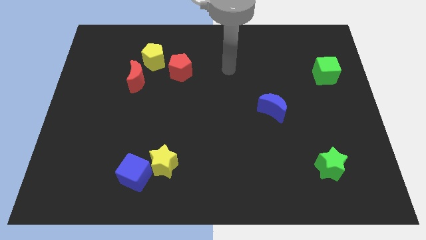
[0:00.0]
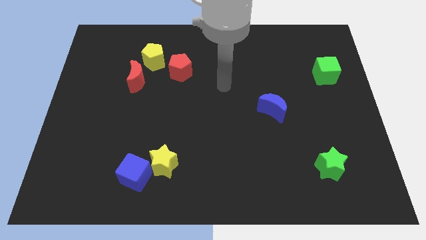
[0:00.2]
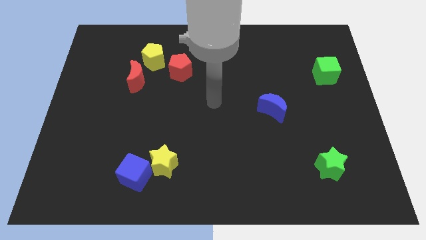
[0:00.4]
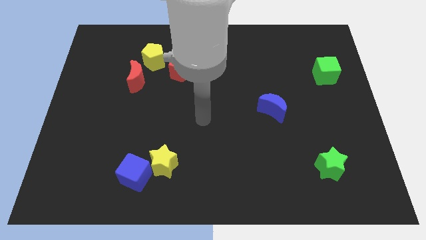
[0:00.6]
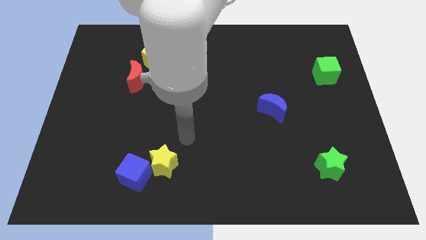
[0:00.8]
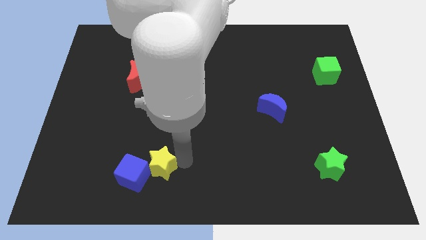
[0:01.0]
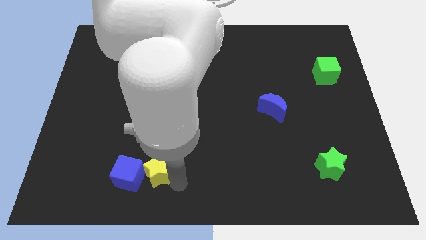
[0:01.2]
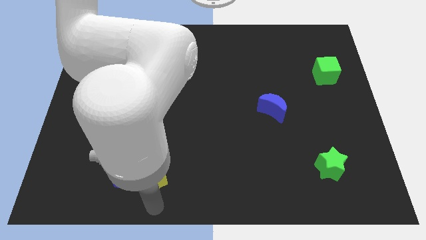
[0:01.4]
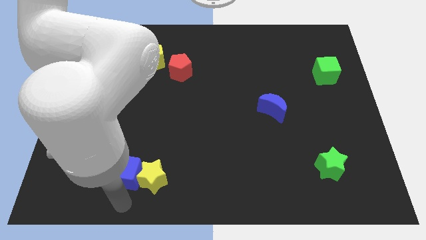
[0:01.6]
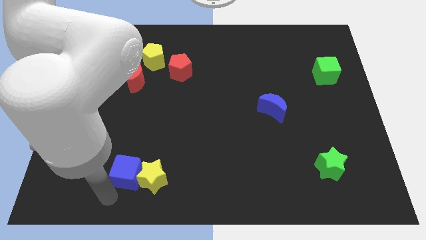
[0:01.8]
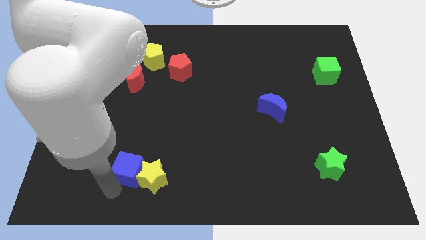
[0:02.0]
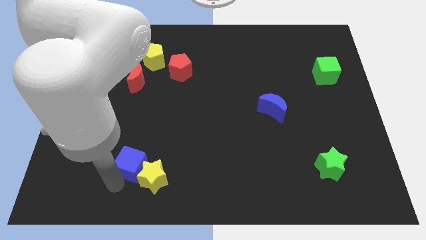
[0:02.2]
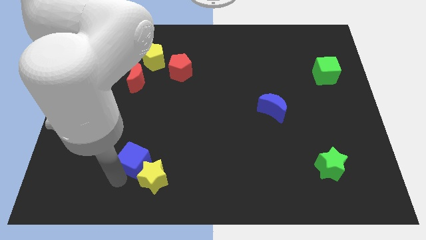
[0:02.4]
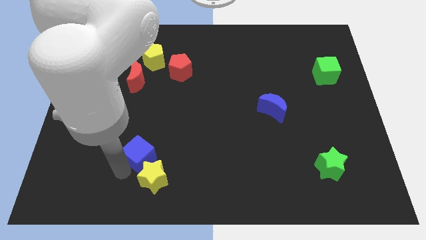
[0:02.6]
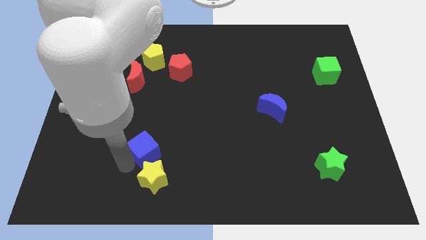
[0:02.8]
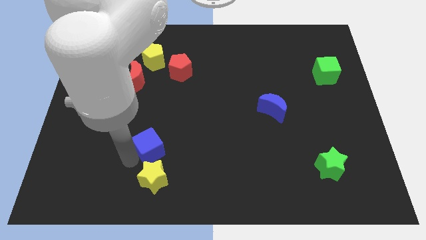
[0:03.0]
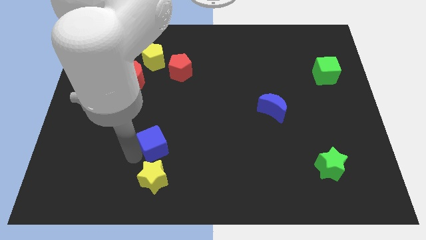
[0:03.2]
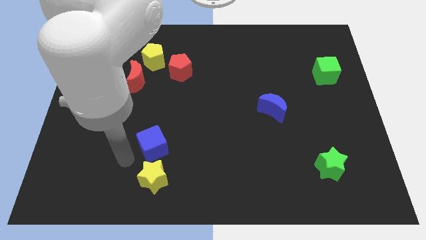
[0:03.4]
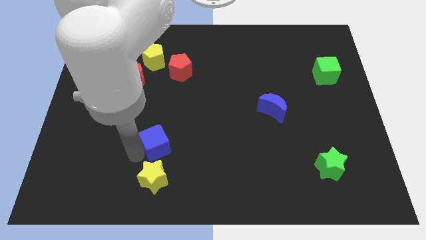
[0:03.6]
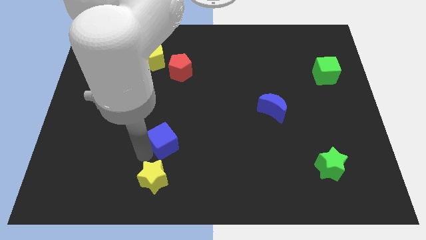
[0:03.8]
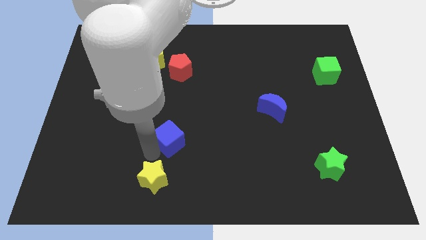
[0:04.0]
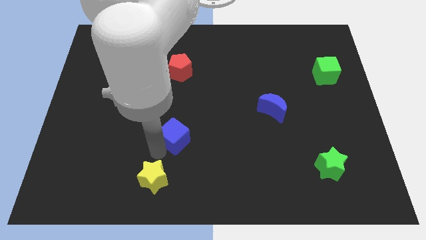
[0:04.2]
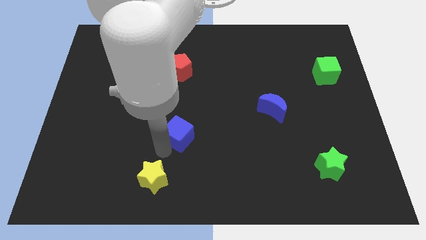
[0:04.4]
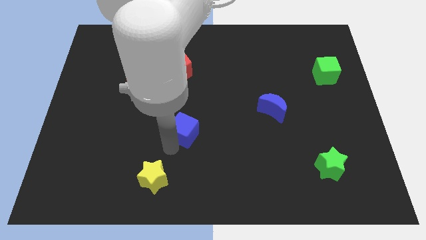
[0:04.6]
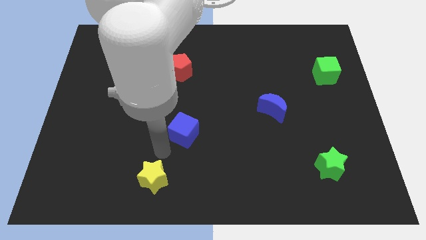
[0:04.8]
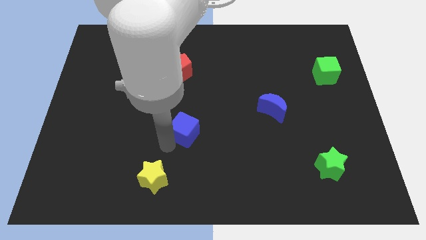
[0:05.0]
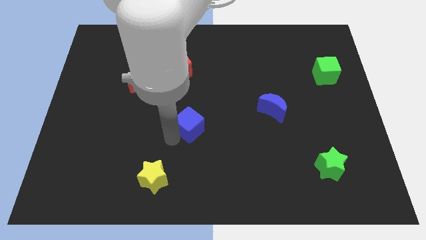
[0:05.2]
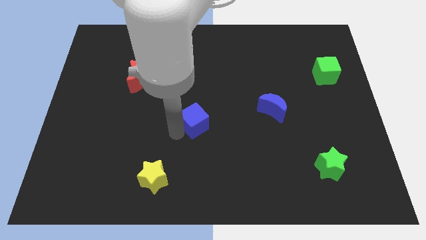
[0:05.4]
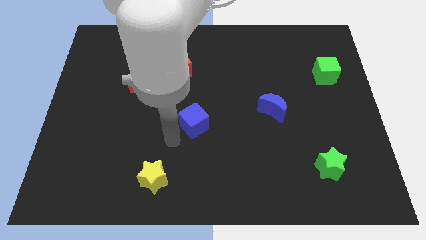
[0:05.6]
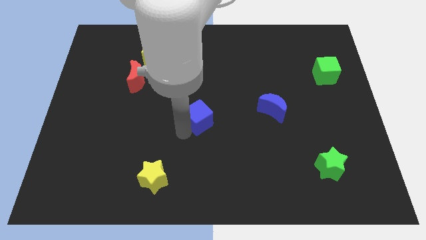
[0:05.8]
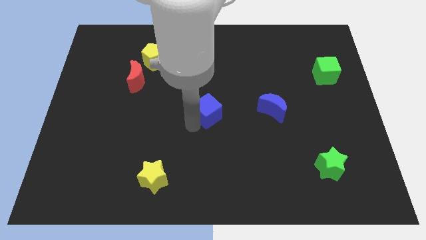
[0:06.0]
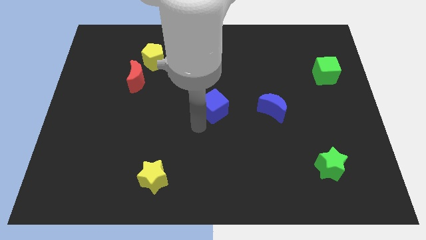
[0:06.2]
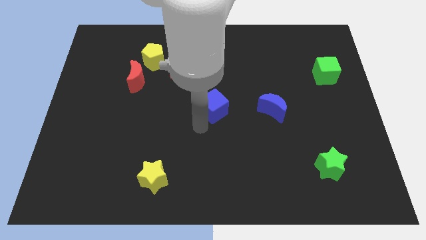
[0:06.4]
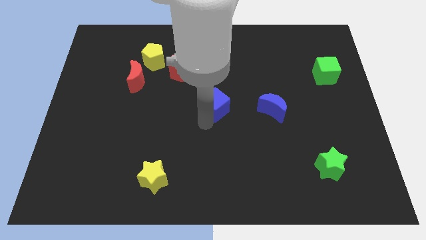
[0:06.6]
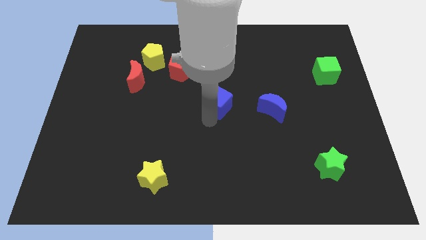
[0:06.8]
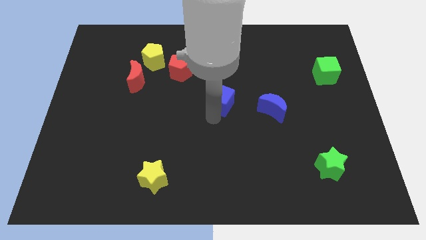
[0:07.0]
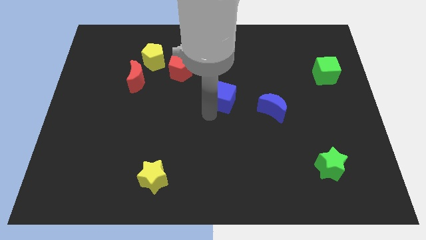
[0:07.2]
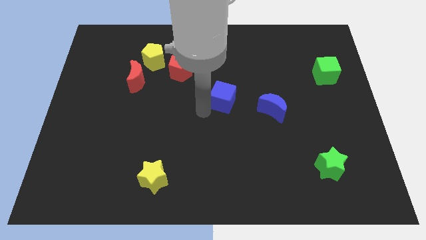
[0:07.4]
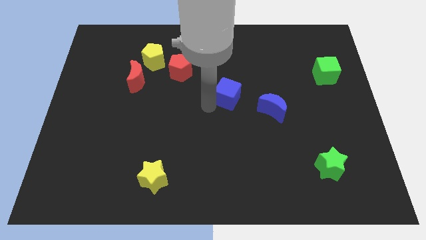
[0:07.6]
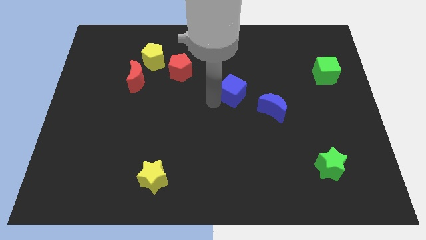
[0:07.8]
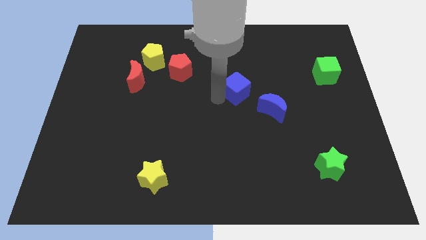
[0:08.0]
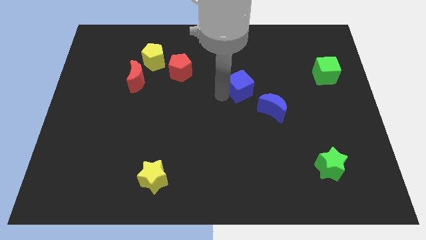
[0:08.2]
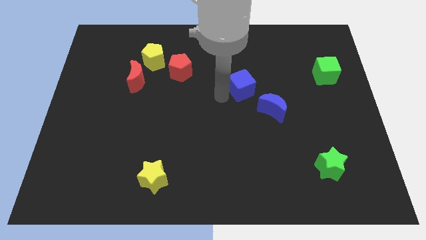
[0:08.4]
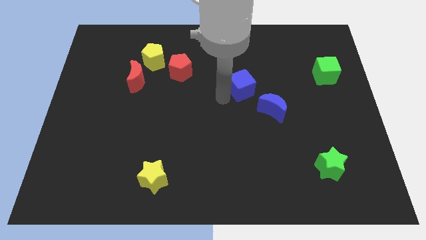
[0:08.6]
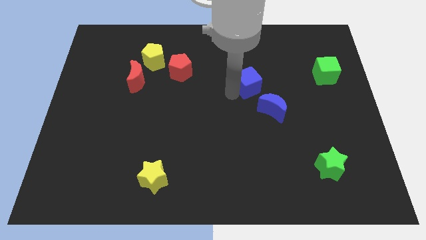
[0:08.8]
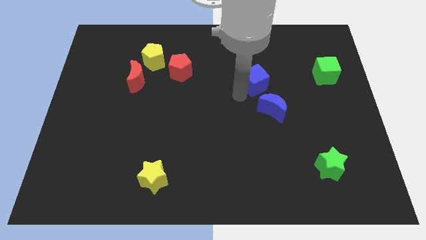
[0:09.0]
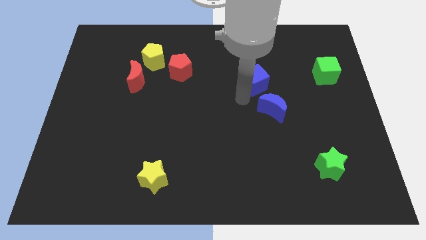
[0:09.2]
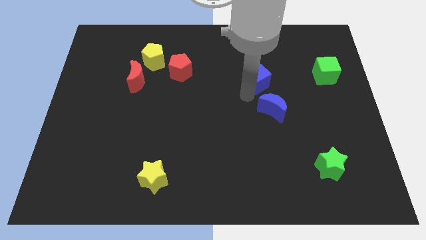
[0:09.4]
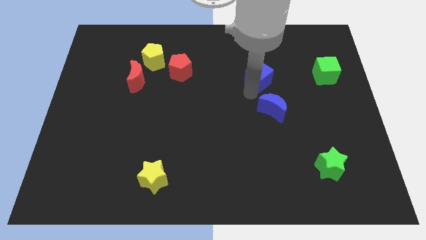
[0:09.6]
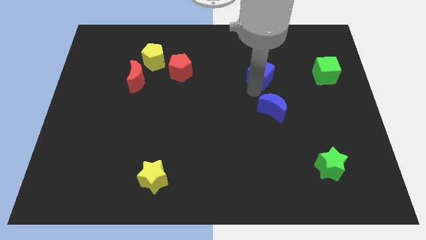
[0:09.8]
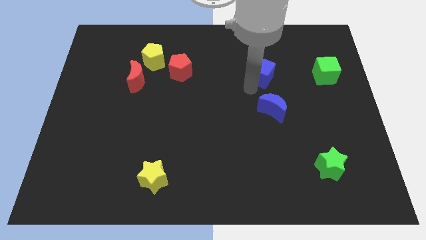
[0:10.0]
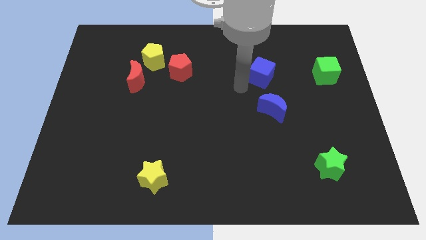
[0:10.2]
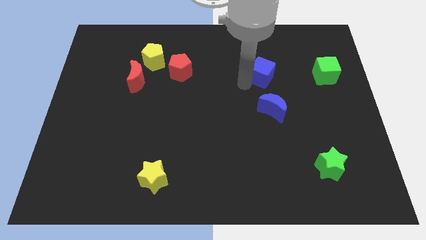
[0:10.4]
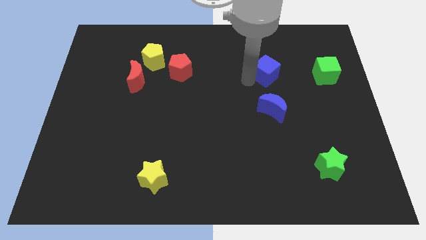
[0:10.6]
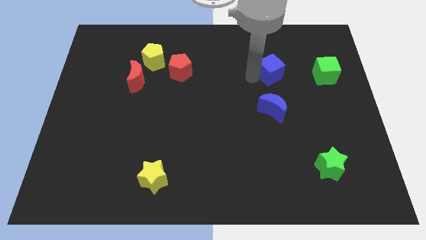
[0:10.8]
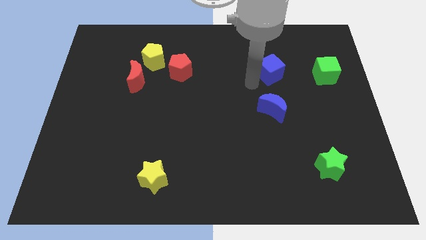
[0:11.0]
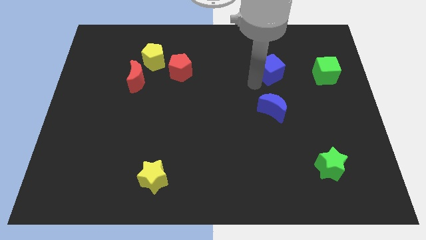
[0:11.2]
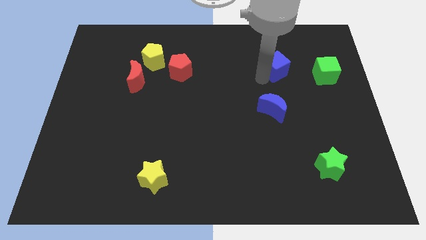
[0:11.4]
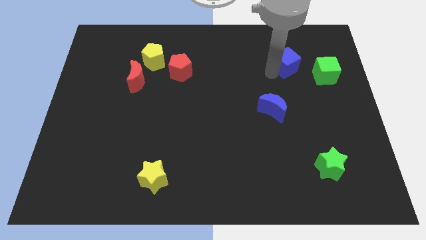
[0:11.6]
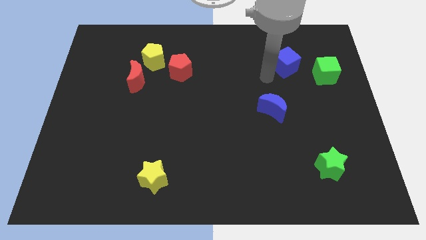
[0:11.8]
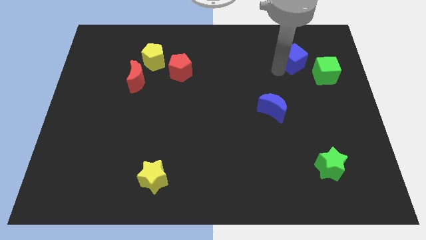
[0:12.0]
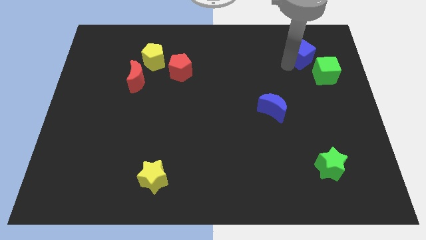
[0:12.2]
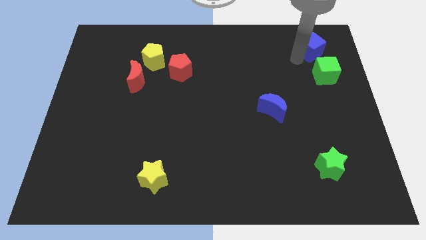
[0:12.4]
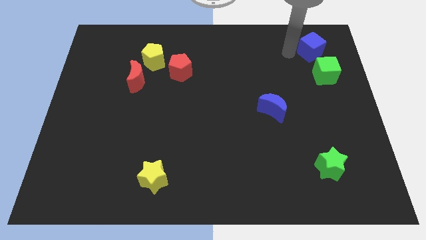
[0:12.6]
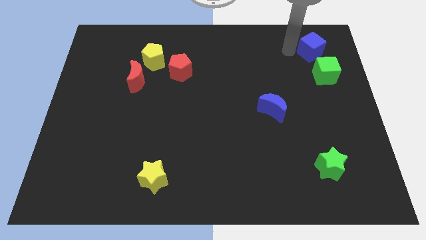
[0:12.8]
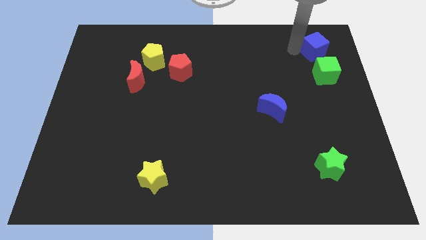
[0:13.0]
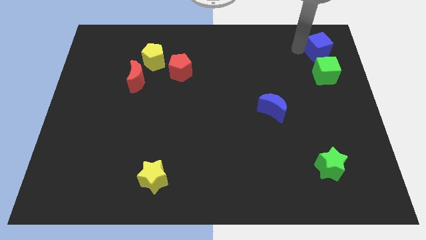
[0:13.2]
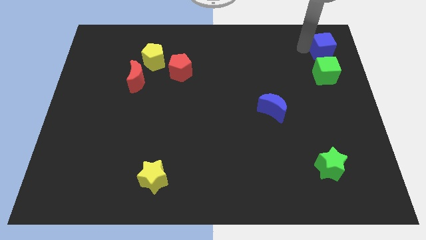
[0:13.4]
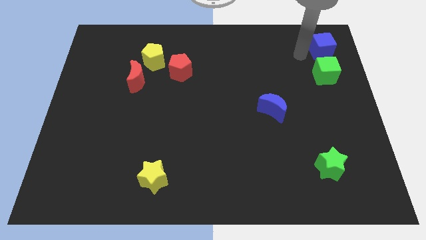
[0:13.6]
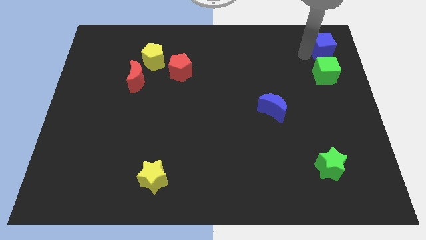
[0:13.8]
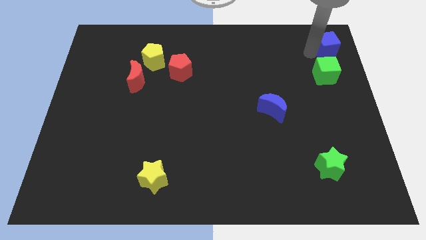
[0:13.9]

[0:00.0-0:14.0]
push the blue cube to the top right of the board
